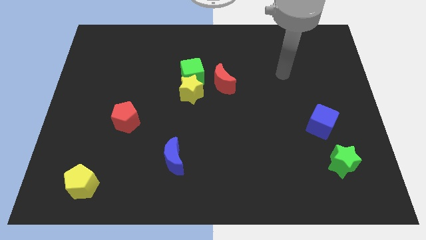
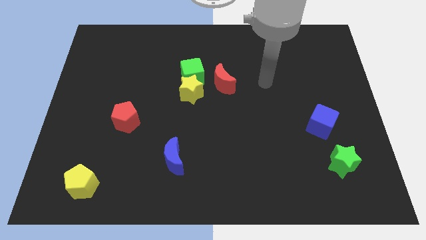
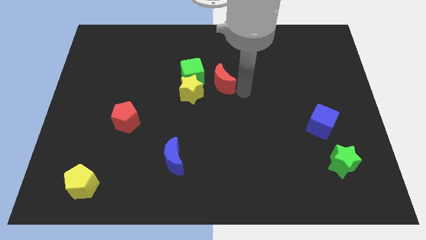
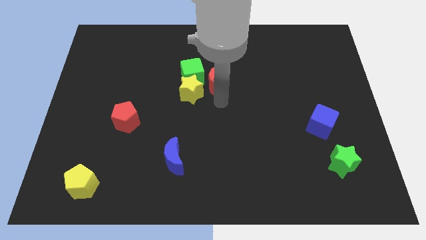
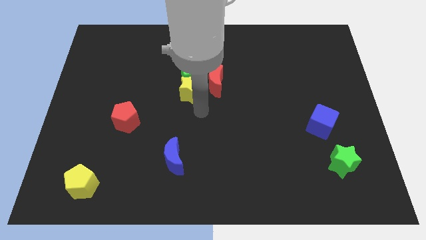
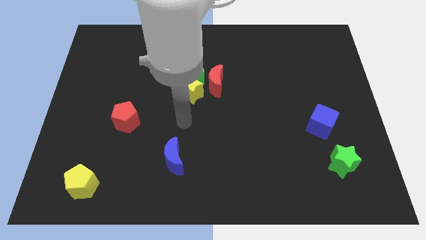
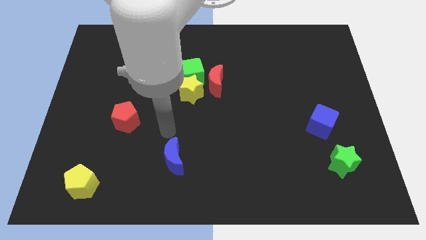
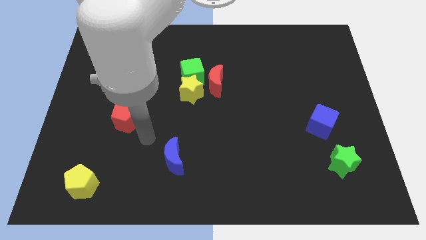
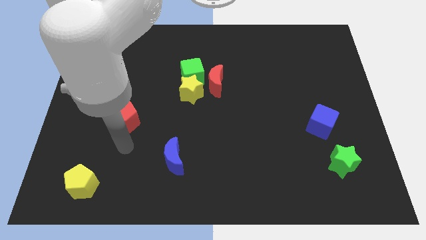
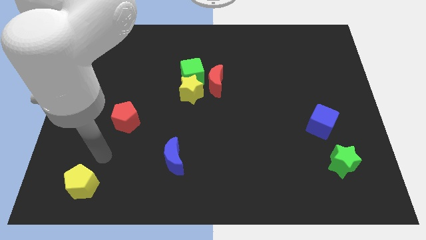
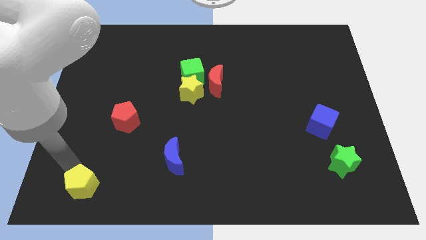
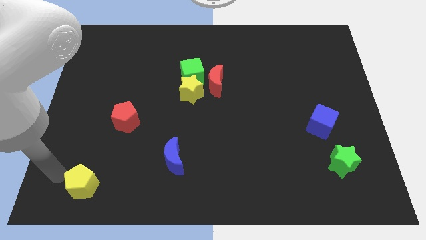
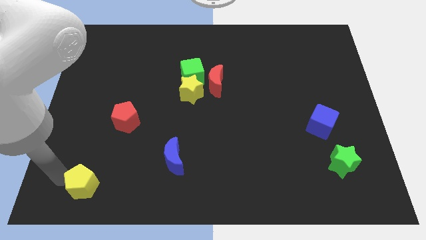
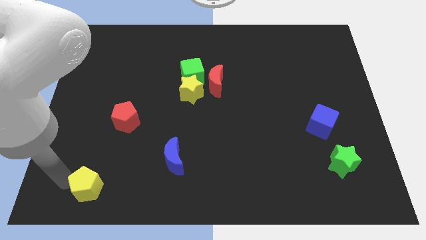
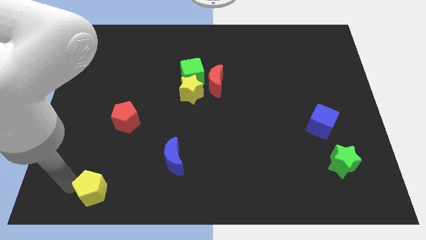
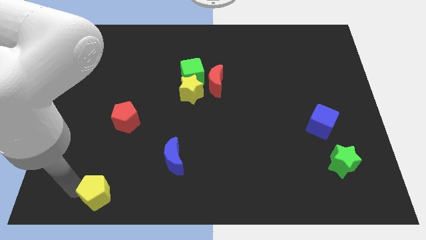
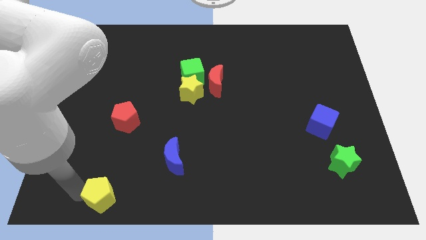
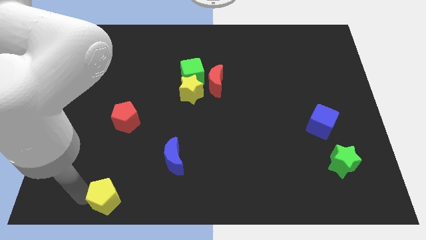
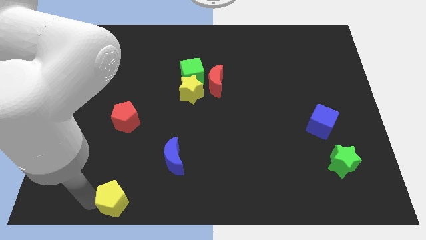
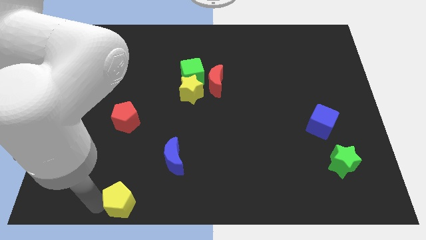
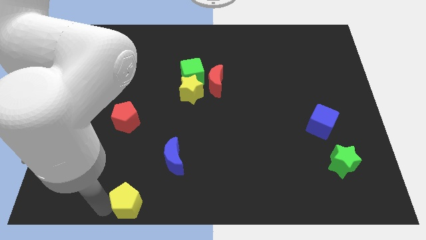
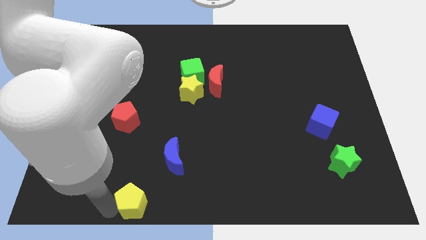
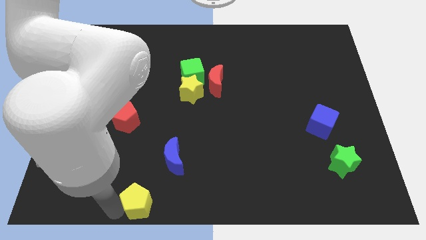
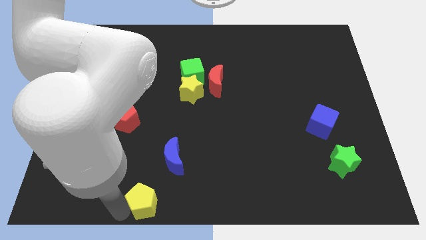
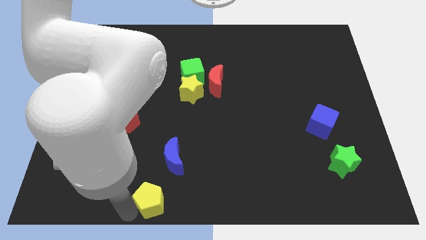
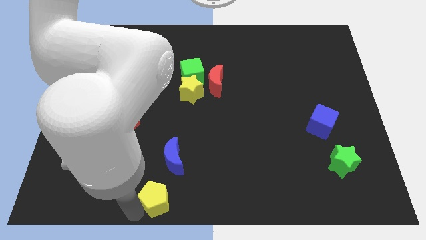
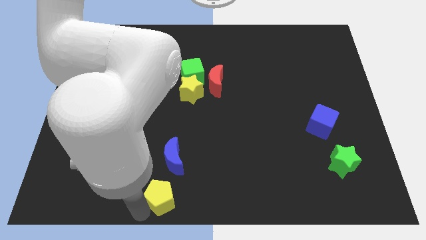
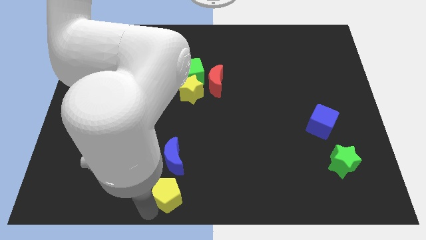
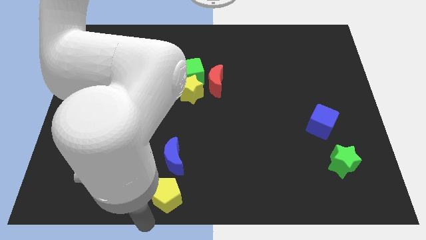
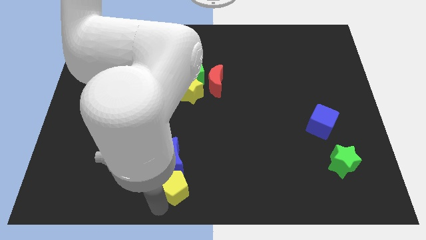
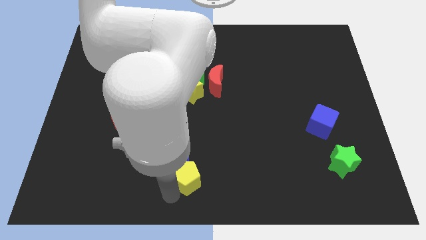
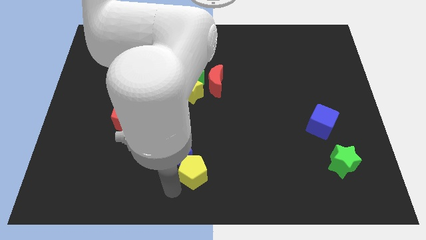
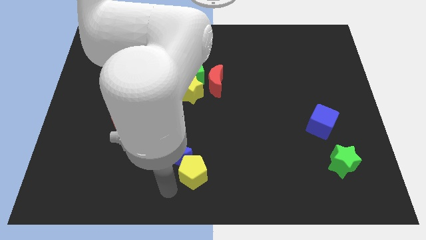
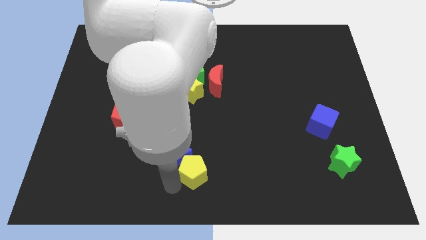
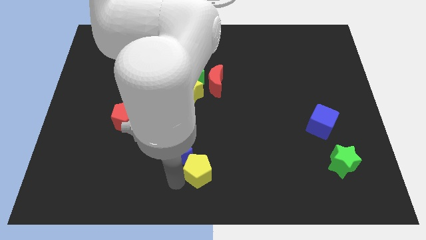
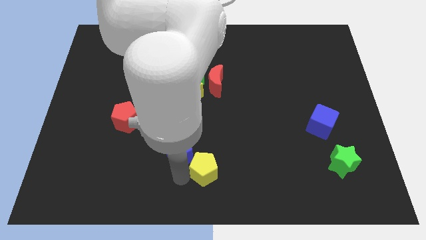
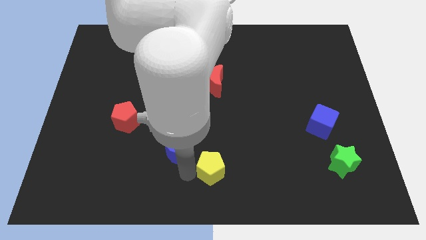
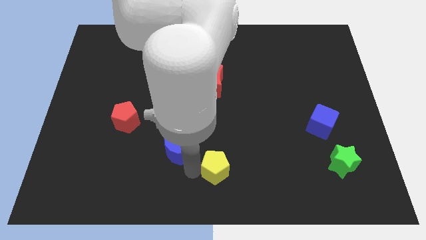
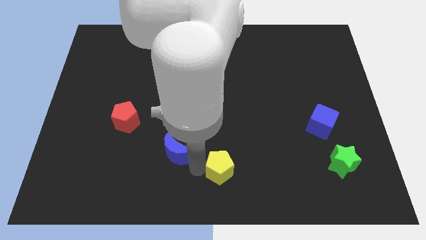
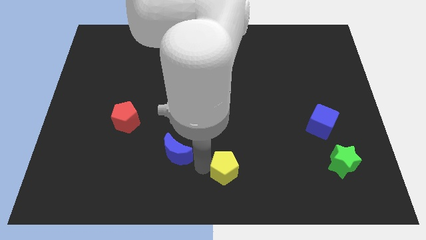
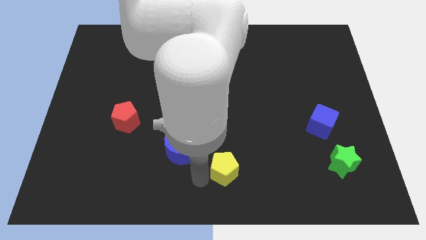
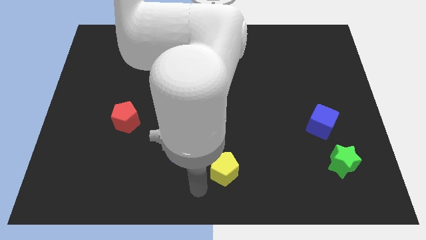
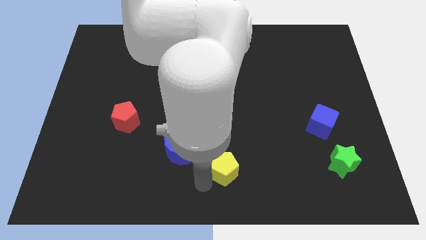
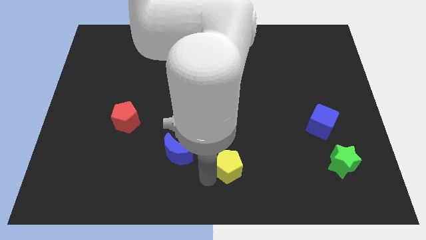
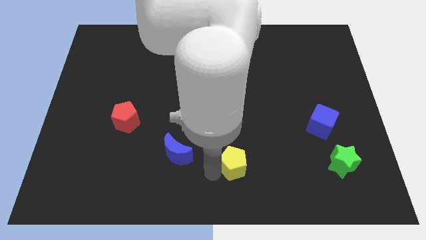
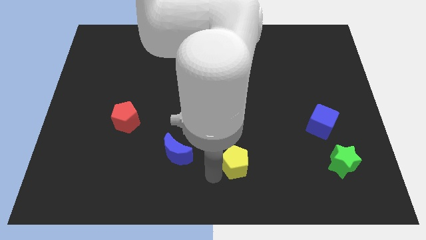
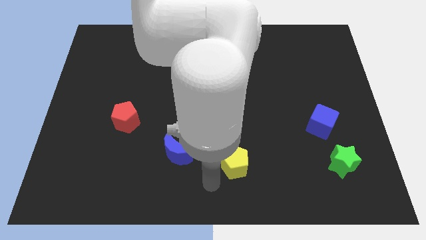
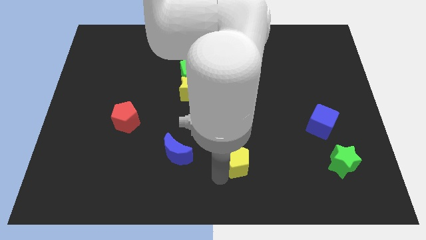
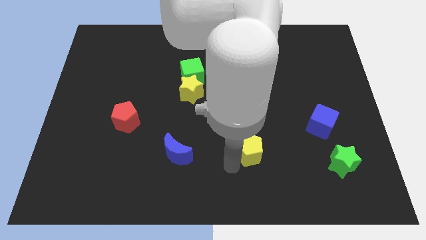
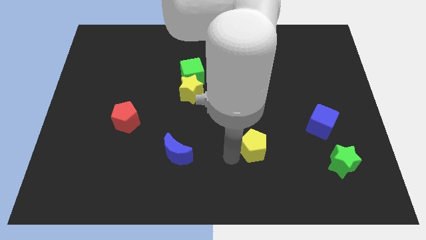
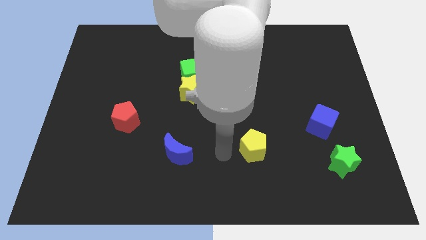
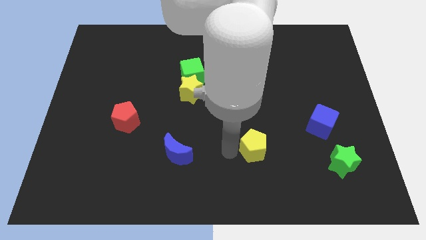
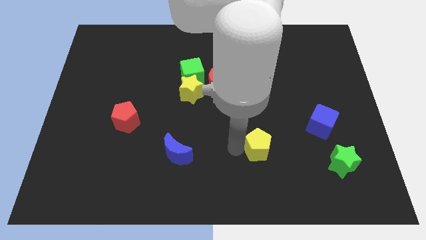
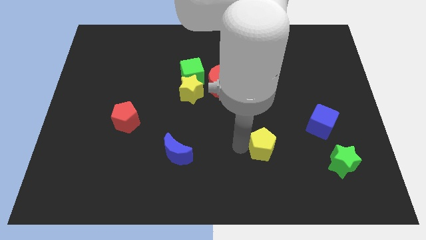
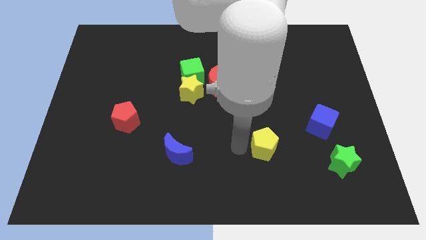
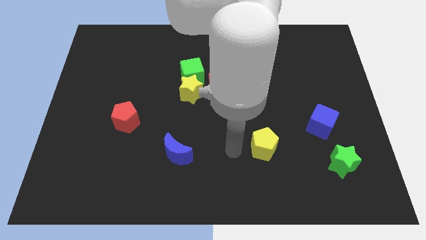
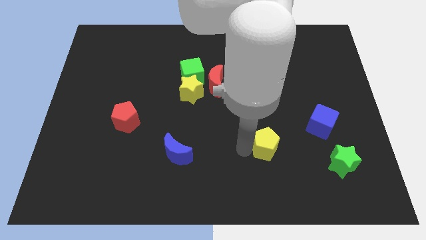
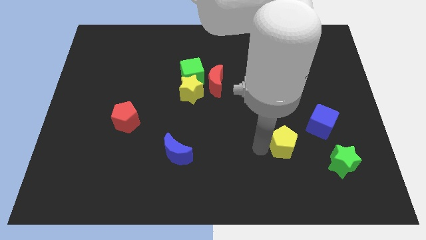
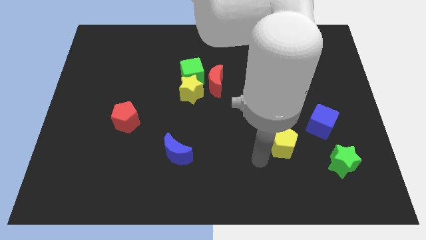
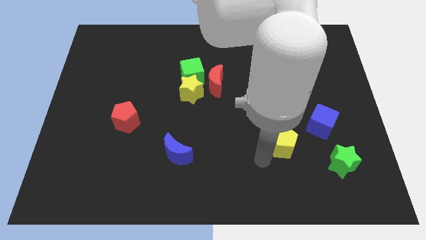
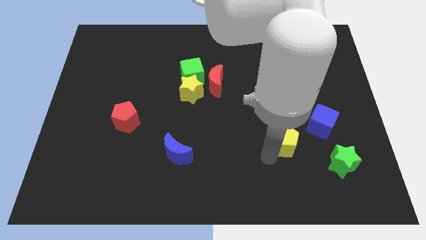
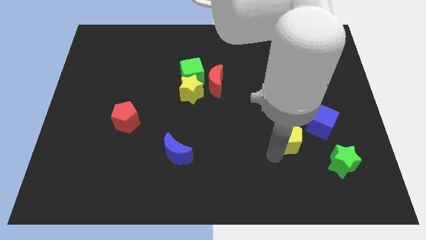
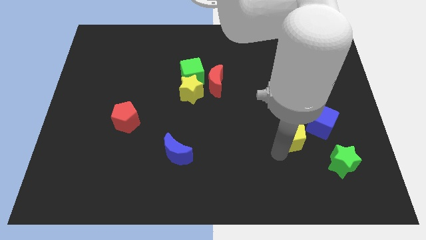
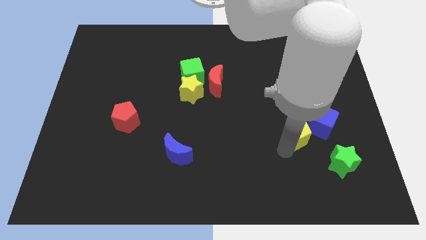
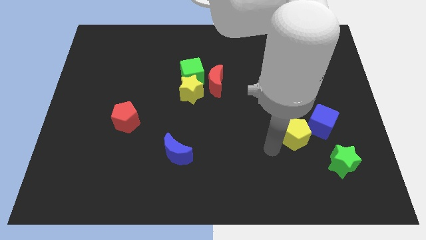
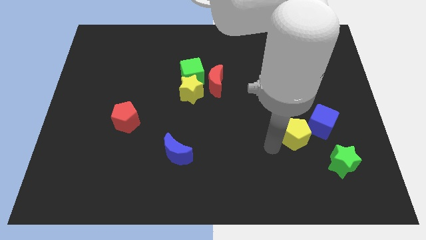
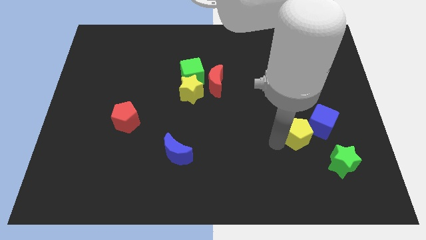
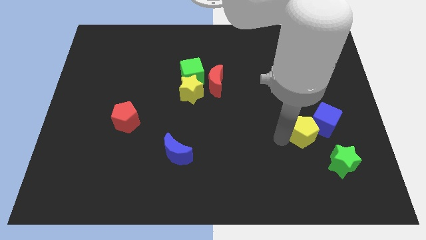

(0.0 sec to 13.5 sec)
push the yellow pentagon close to the blue cube

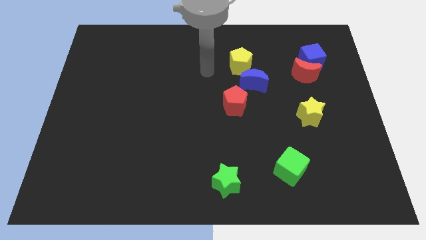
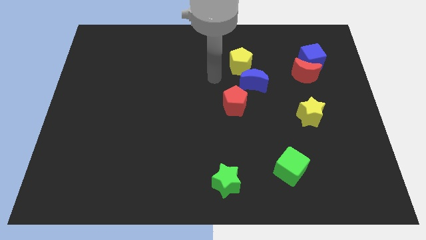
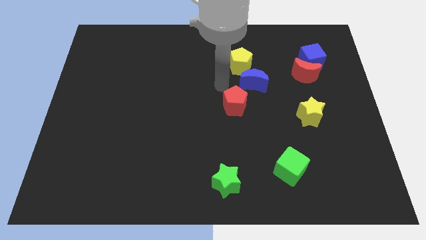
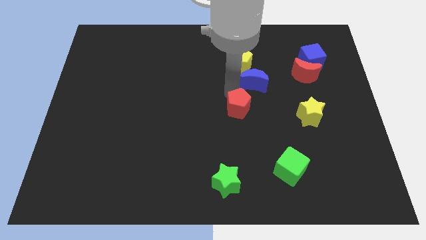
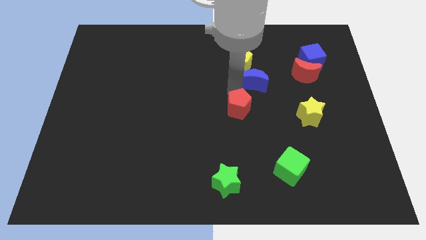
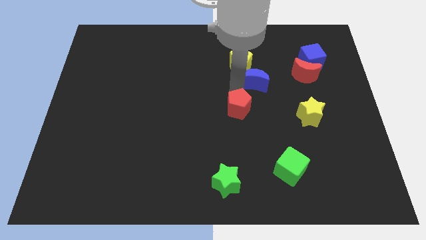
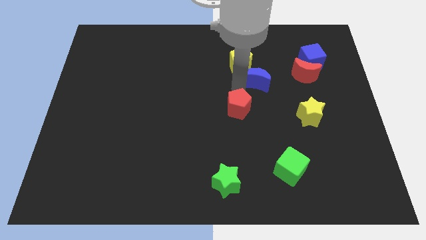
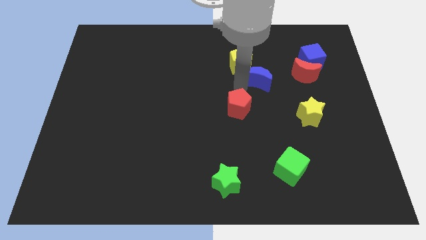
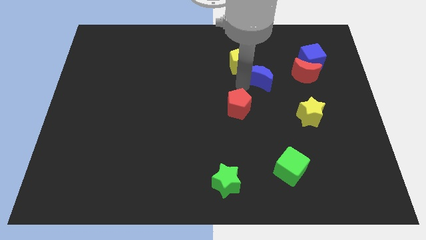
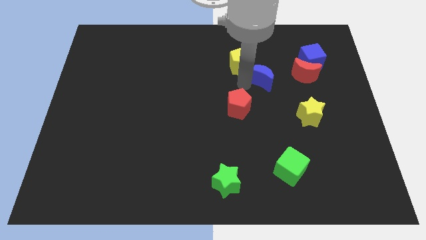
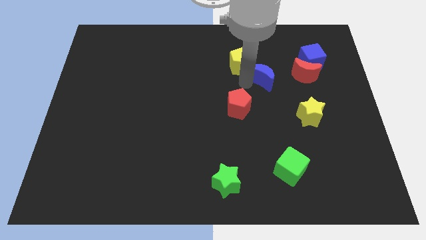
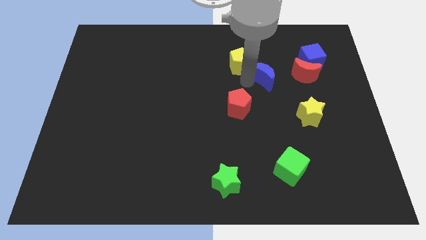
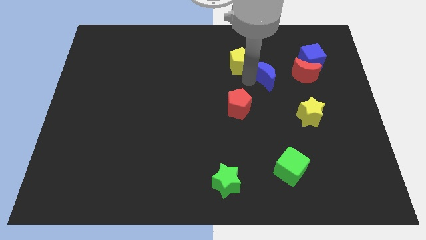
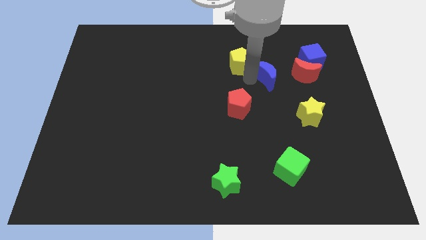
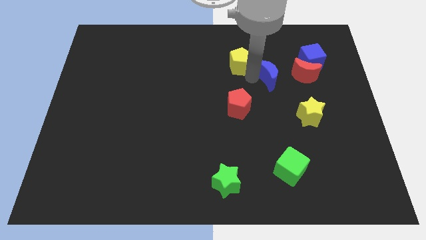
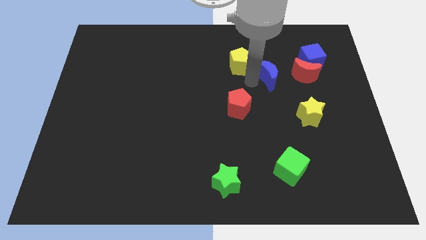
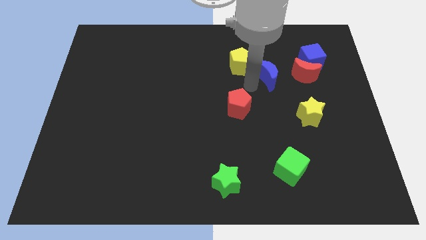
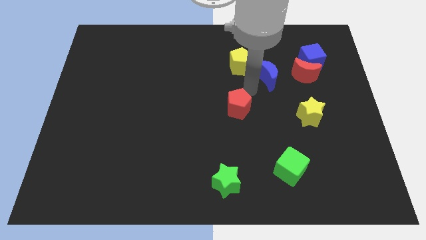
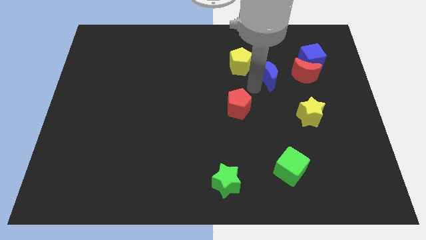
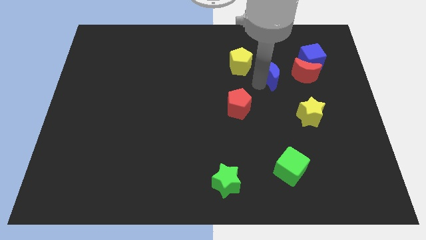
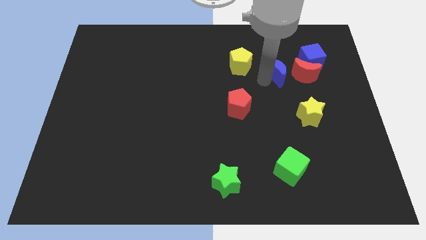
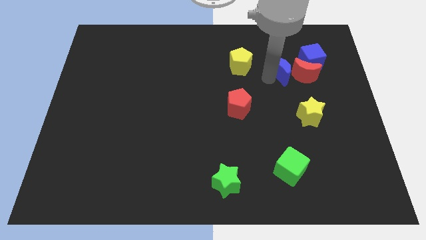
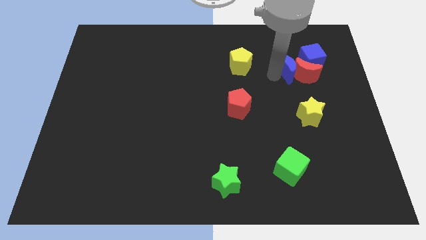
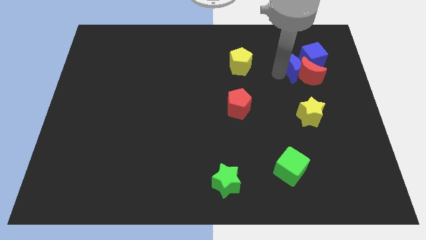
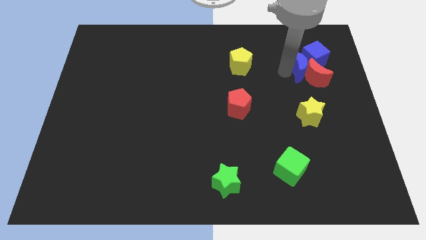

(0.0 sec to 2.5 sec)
slide the blue moon close to the blue cube
